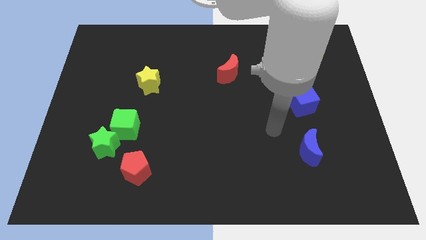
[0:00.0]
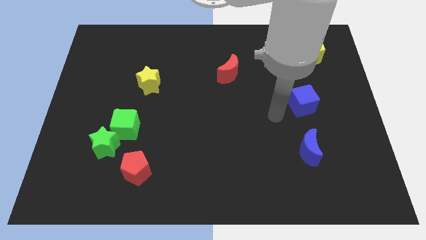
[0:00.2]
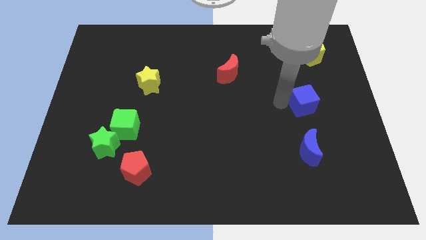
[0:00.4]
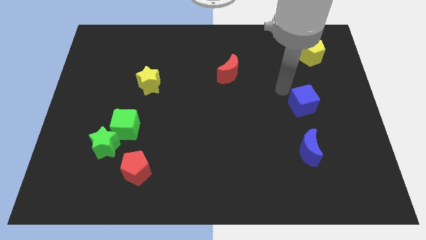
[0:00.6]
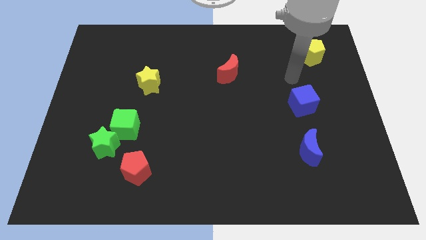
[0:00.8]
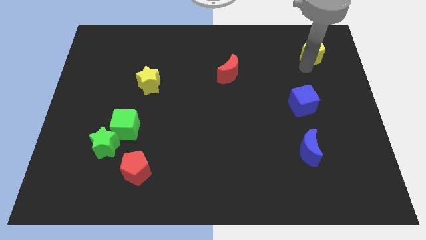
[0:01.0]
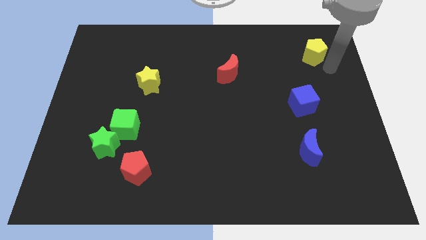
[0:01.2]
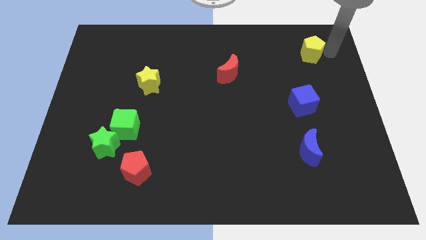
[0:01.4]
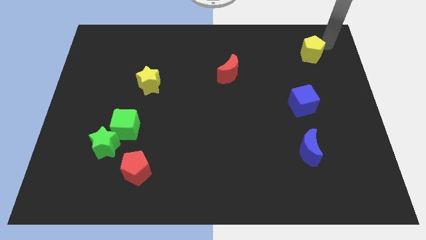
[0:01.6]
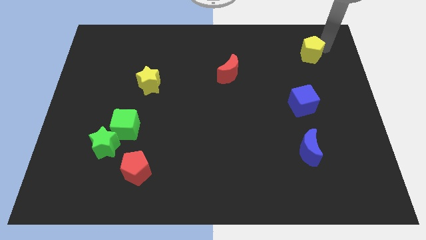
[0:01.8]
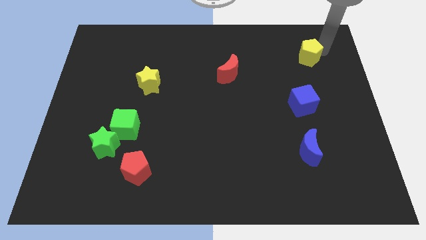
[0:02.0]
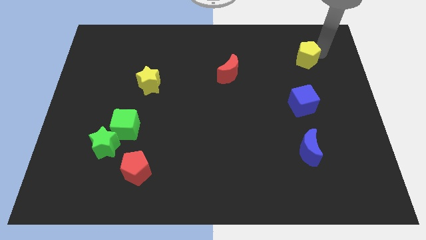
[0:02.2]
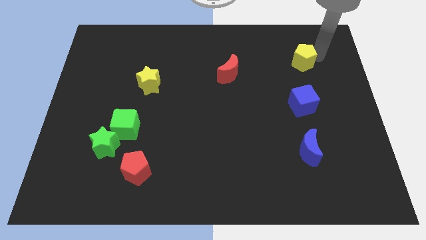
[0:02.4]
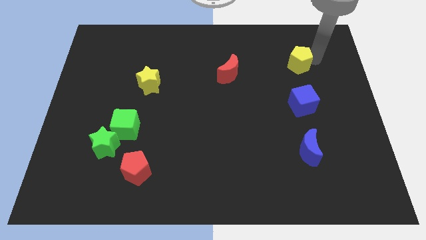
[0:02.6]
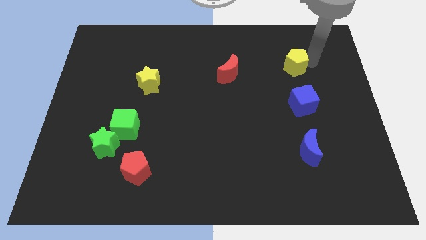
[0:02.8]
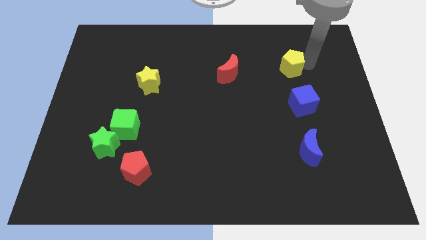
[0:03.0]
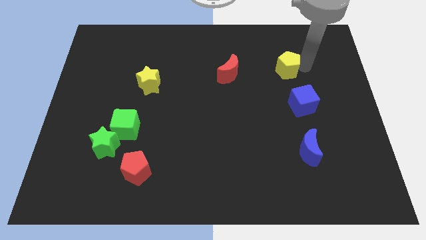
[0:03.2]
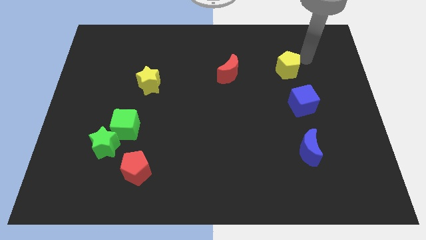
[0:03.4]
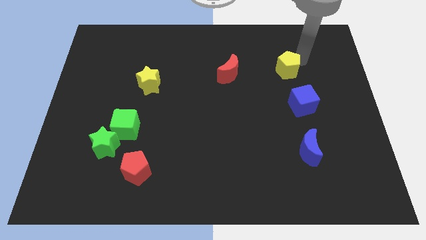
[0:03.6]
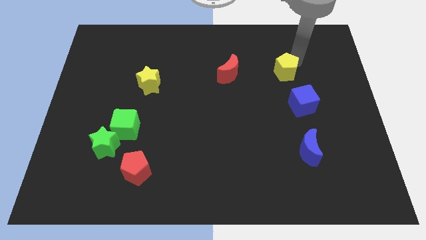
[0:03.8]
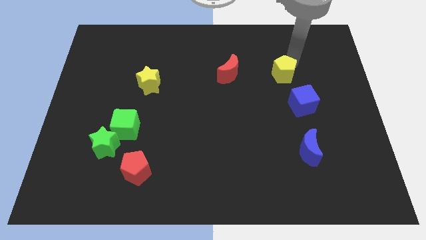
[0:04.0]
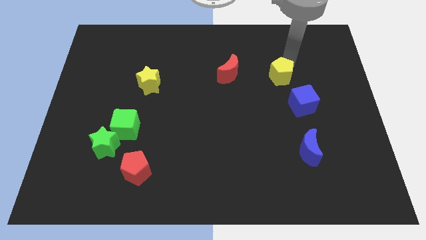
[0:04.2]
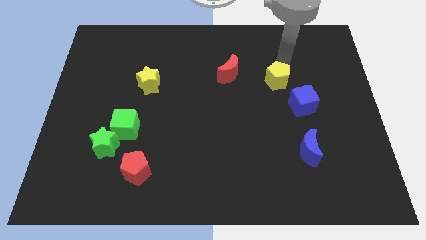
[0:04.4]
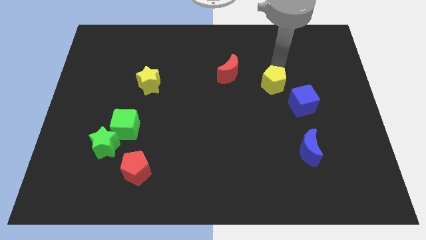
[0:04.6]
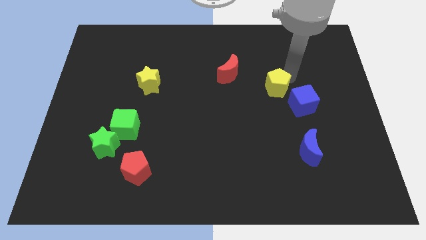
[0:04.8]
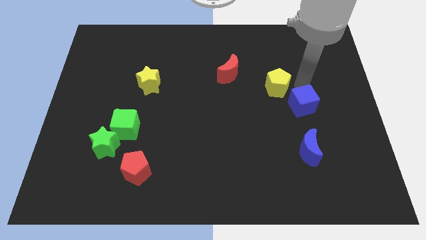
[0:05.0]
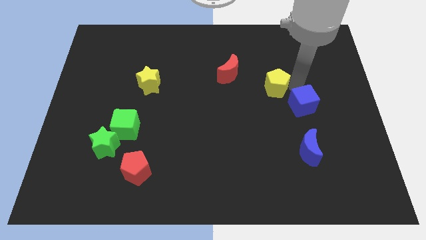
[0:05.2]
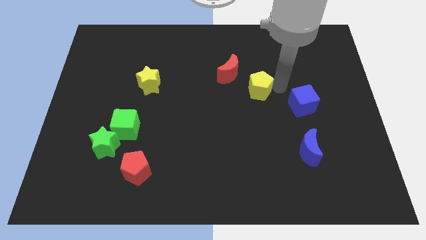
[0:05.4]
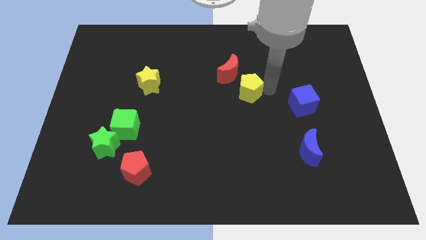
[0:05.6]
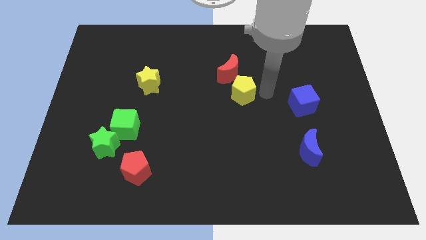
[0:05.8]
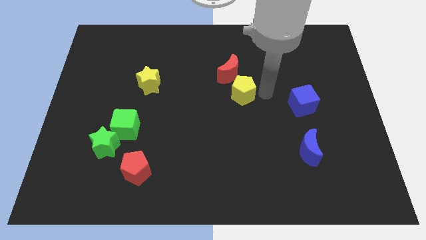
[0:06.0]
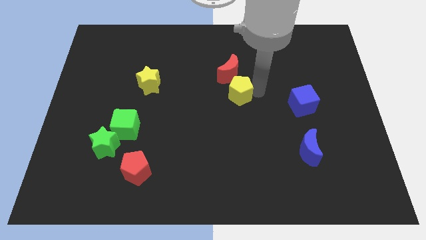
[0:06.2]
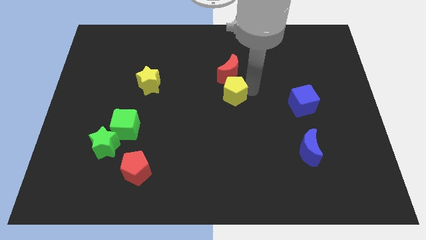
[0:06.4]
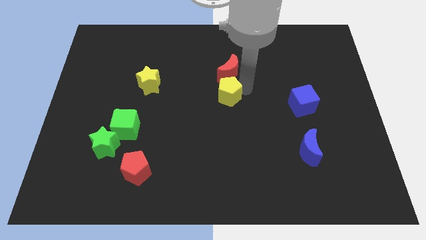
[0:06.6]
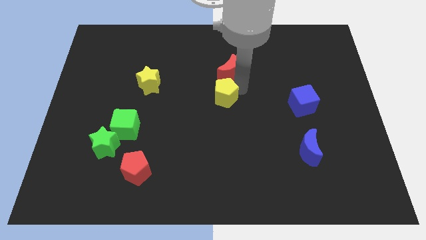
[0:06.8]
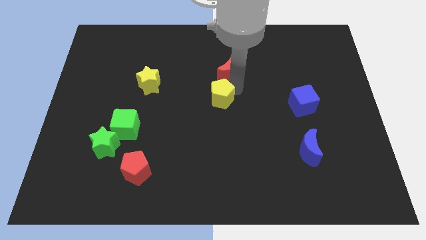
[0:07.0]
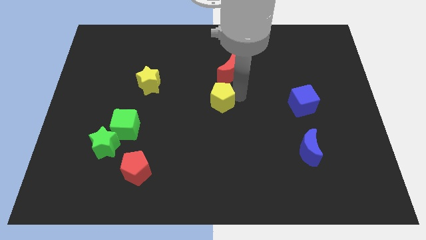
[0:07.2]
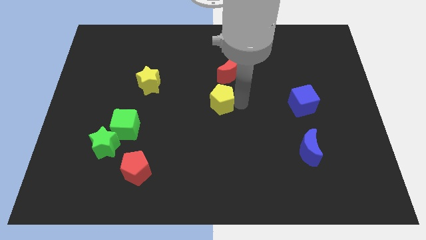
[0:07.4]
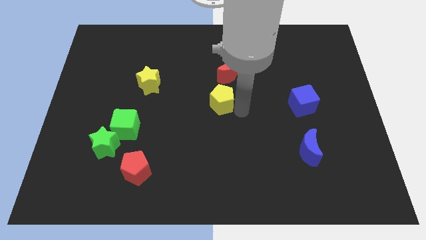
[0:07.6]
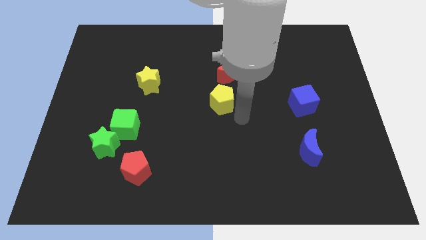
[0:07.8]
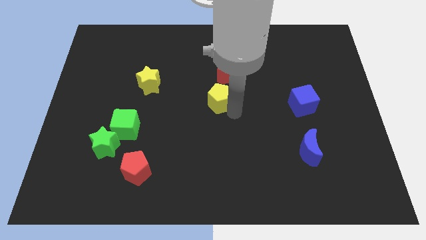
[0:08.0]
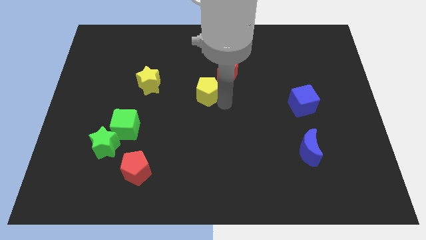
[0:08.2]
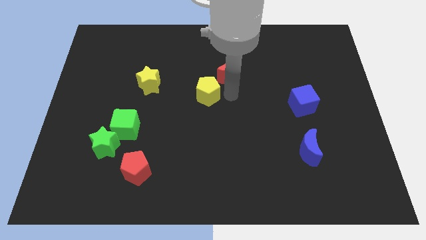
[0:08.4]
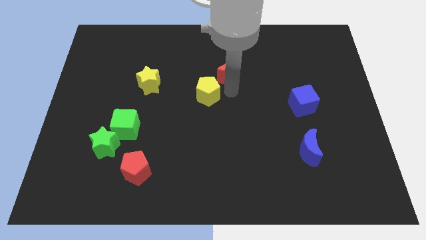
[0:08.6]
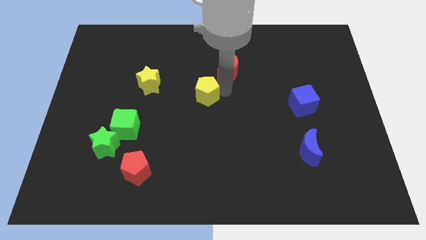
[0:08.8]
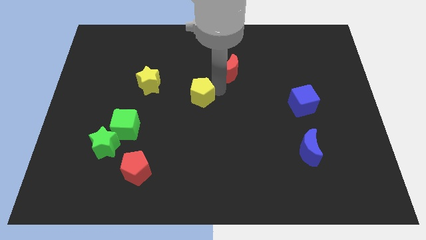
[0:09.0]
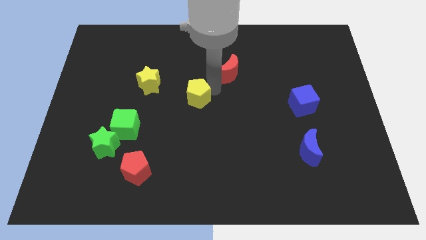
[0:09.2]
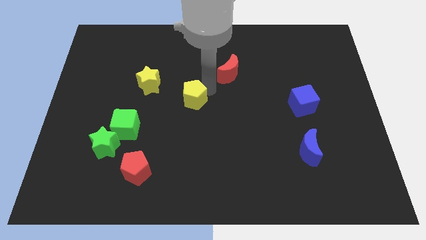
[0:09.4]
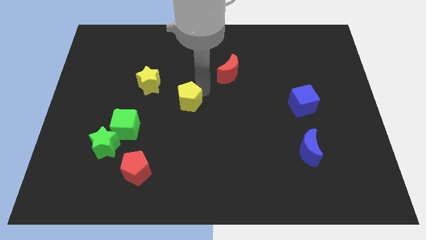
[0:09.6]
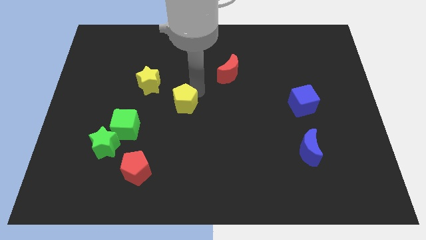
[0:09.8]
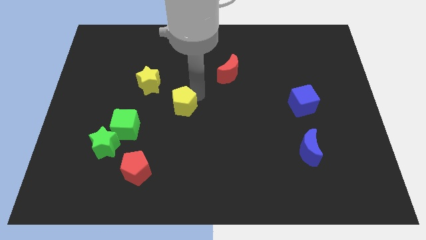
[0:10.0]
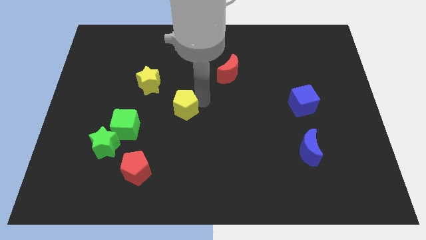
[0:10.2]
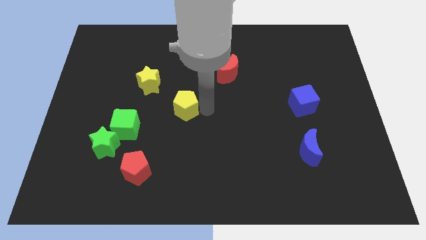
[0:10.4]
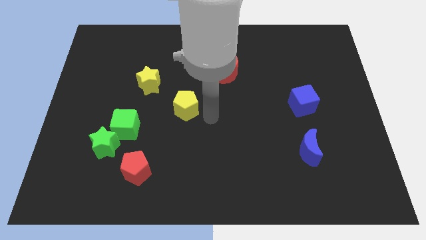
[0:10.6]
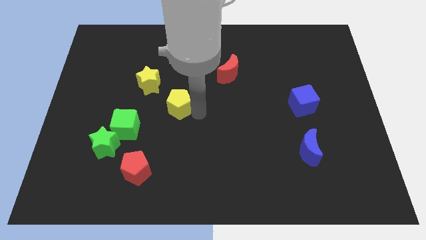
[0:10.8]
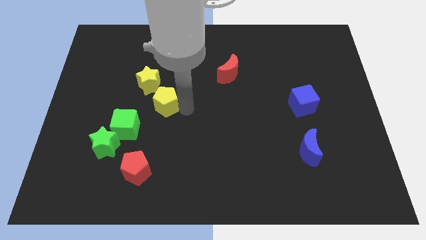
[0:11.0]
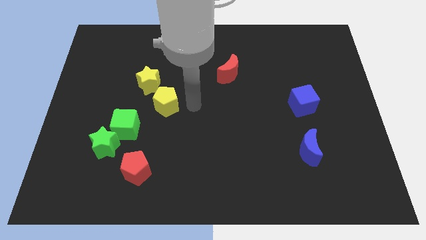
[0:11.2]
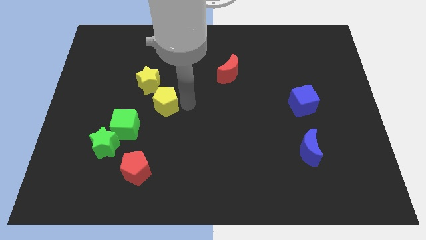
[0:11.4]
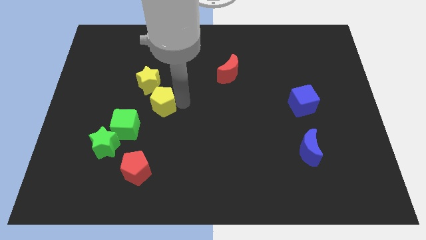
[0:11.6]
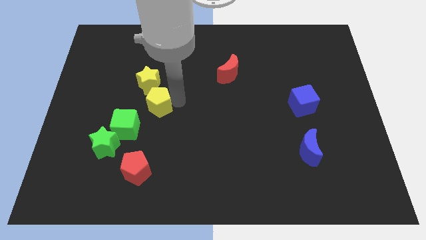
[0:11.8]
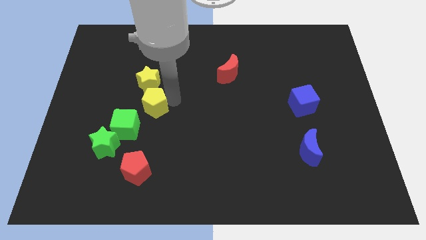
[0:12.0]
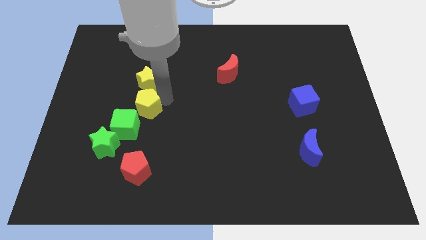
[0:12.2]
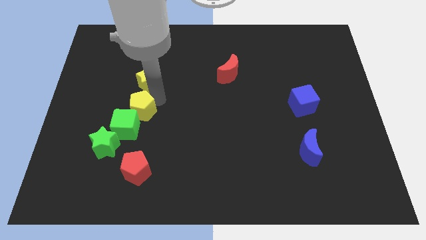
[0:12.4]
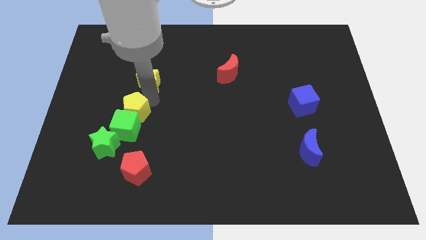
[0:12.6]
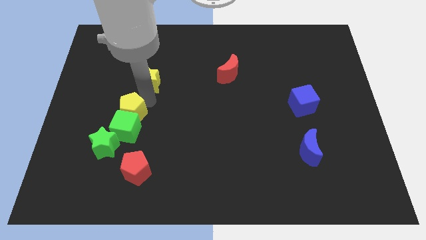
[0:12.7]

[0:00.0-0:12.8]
push the yellow pentagon to the top of the green star

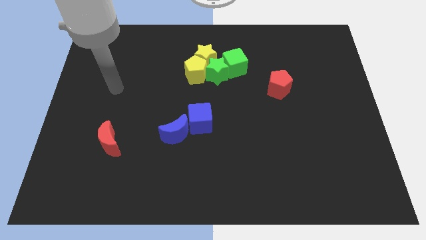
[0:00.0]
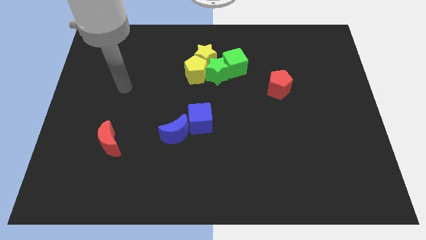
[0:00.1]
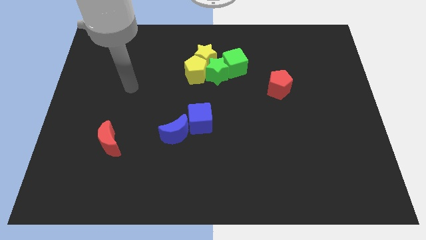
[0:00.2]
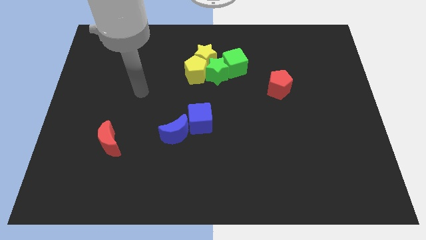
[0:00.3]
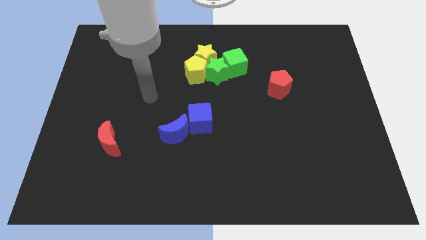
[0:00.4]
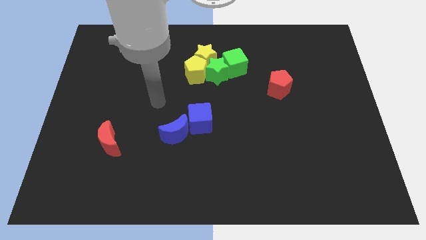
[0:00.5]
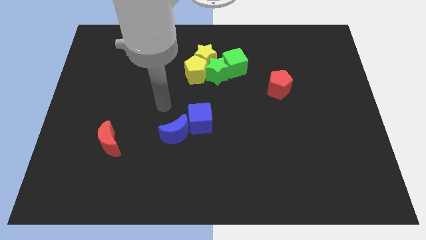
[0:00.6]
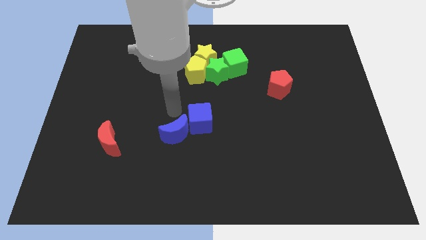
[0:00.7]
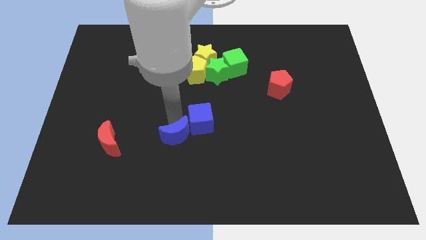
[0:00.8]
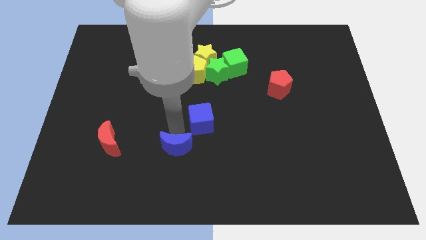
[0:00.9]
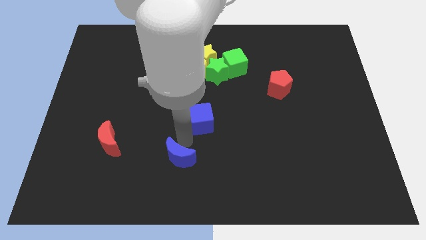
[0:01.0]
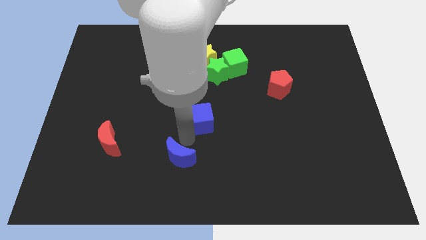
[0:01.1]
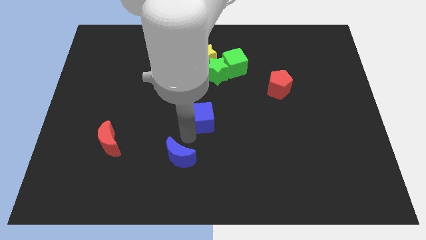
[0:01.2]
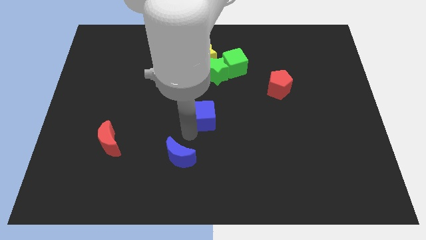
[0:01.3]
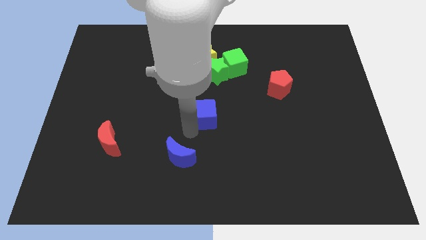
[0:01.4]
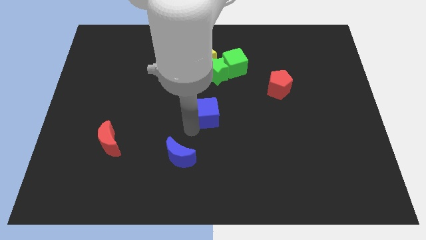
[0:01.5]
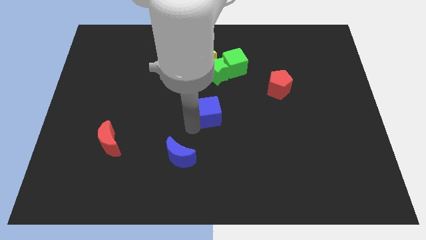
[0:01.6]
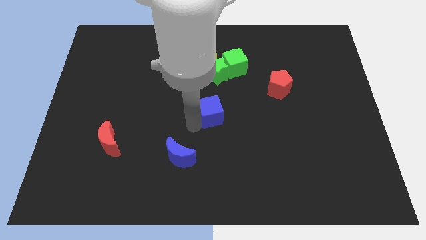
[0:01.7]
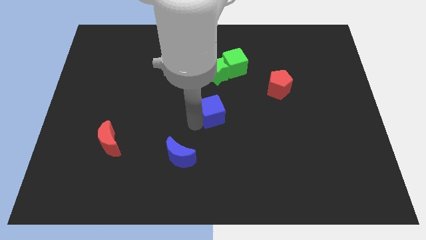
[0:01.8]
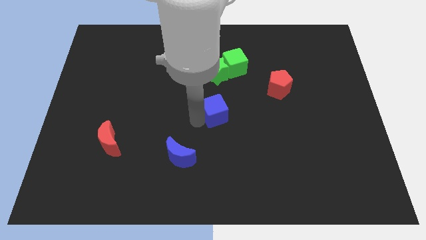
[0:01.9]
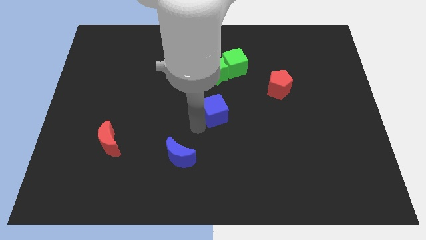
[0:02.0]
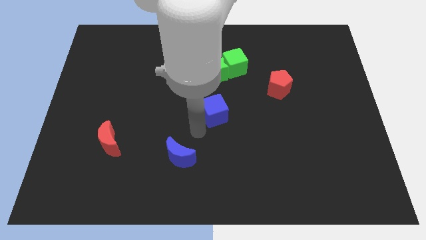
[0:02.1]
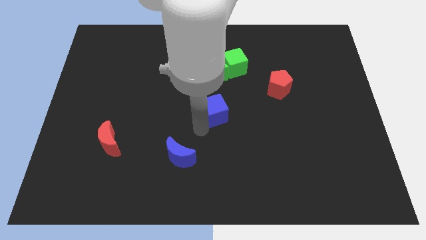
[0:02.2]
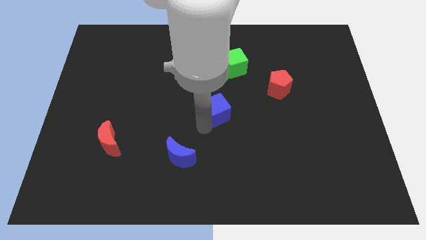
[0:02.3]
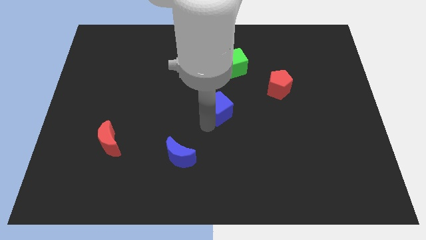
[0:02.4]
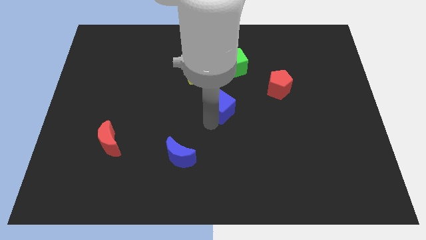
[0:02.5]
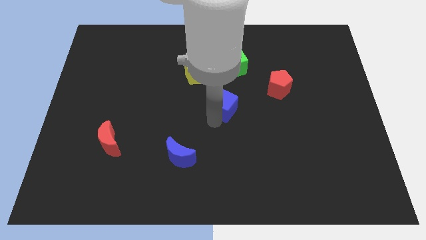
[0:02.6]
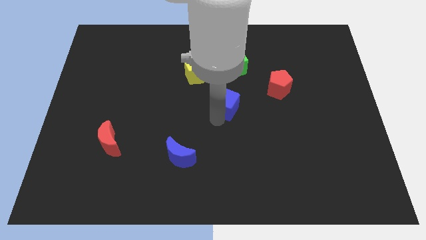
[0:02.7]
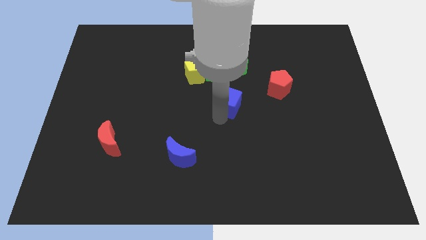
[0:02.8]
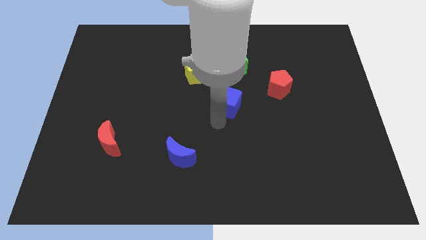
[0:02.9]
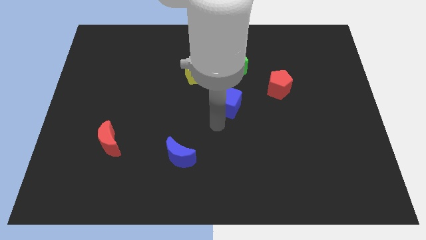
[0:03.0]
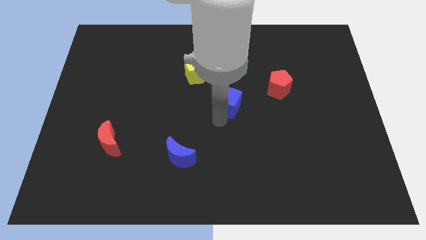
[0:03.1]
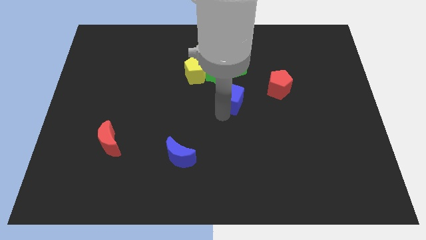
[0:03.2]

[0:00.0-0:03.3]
slide the blue cube left of the red pentagon
